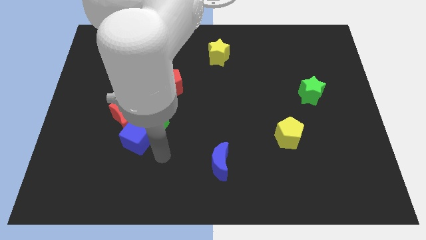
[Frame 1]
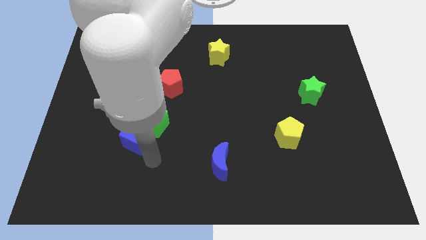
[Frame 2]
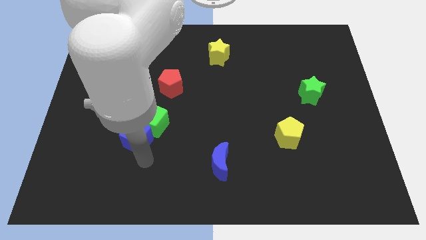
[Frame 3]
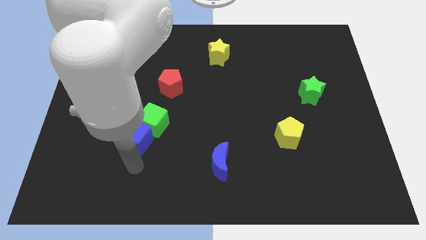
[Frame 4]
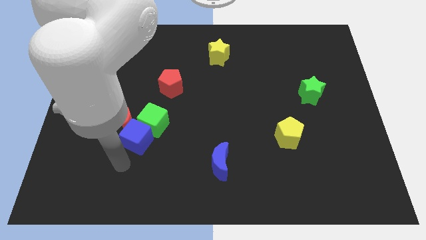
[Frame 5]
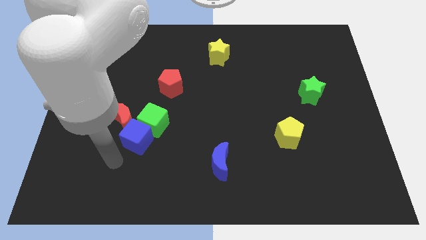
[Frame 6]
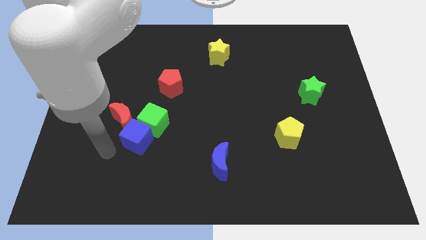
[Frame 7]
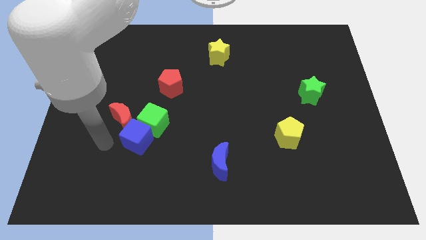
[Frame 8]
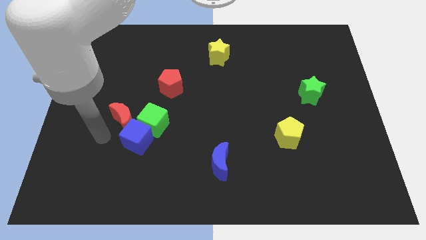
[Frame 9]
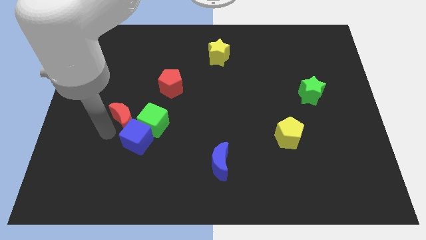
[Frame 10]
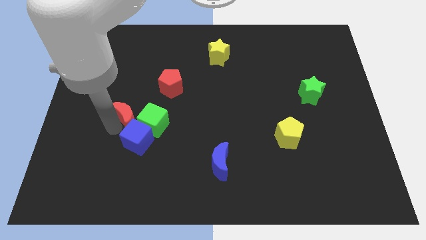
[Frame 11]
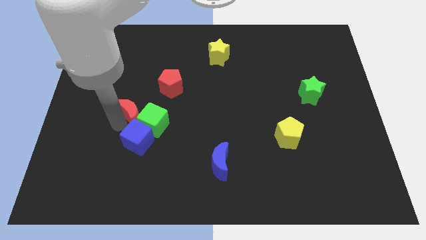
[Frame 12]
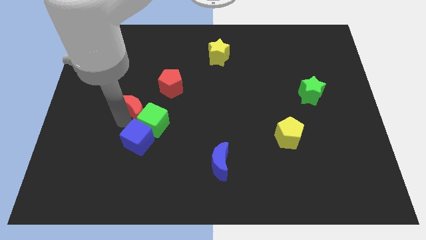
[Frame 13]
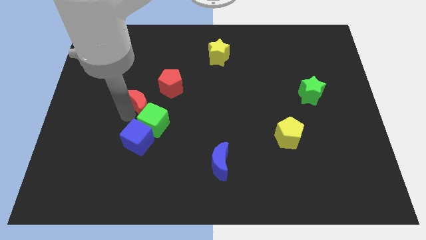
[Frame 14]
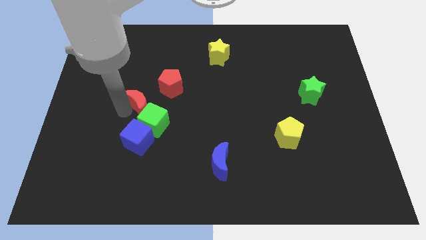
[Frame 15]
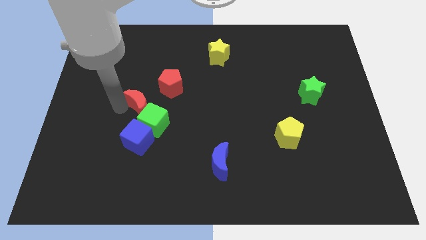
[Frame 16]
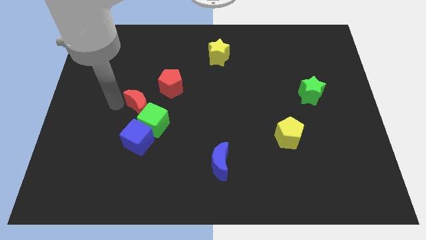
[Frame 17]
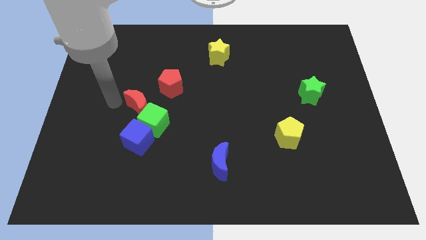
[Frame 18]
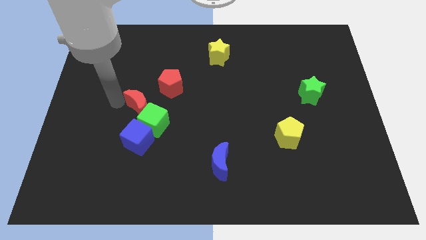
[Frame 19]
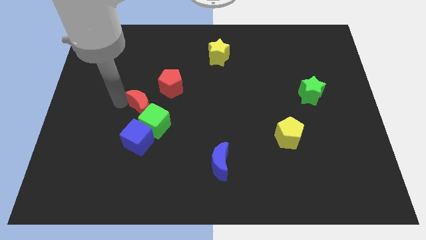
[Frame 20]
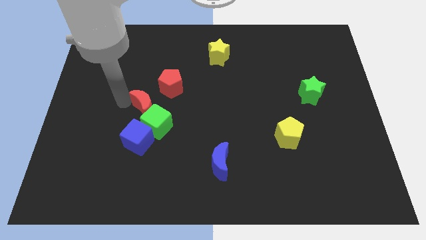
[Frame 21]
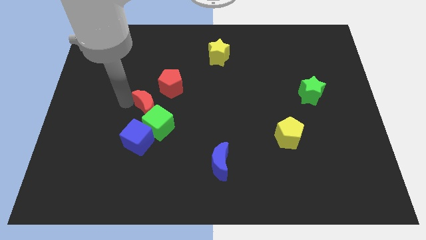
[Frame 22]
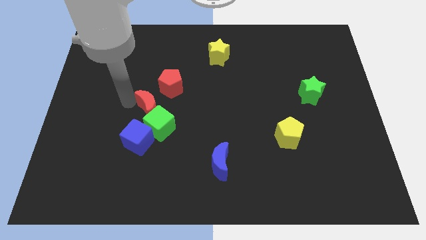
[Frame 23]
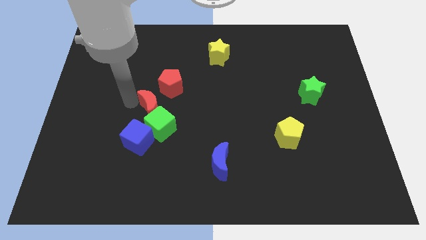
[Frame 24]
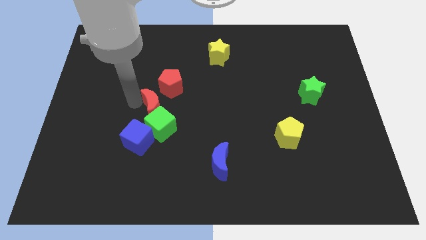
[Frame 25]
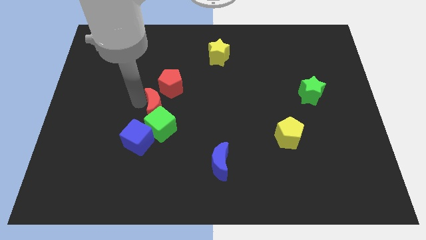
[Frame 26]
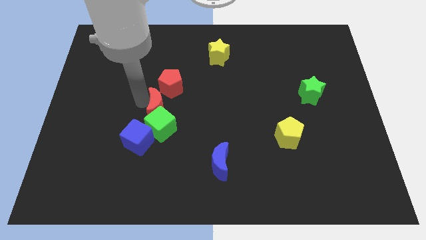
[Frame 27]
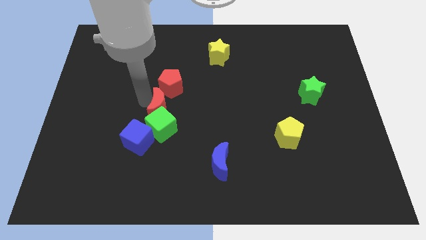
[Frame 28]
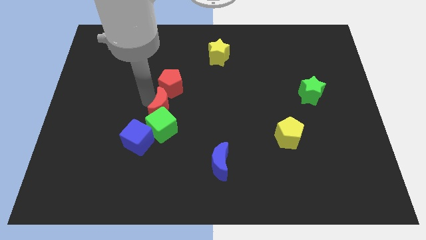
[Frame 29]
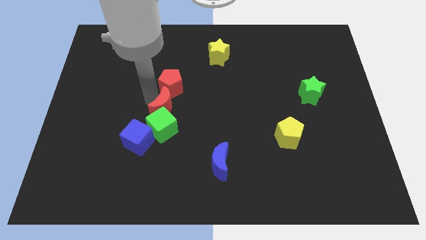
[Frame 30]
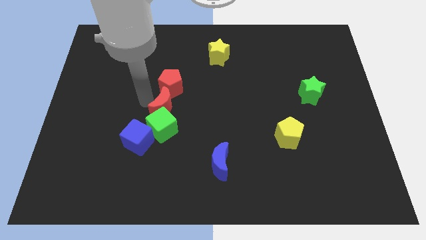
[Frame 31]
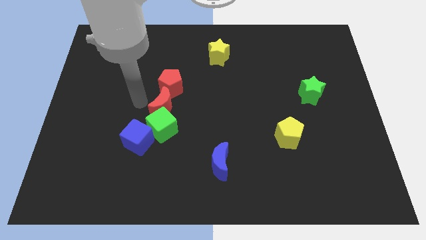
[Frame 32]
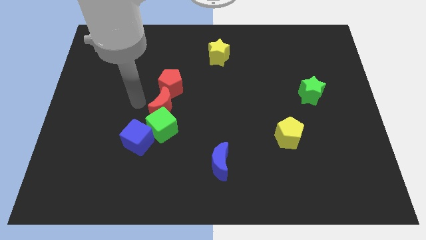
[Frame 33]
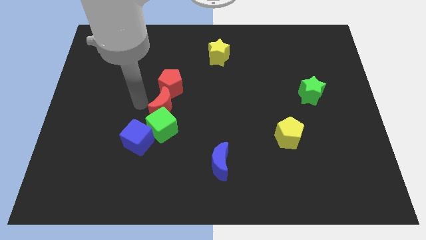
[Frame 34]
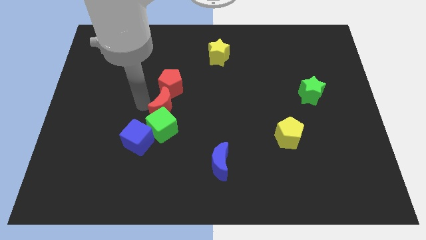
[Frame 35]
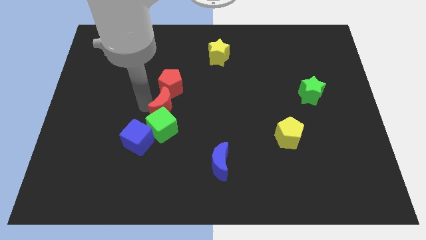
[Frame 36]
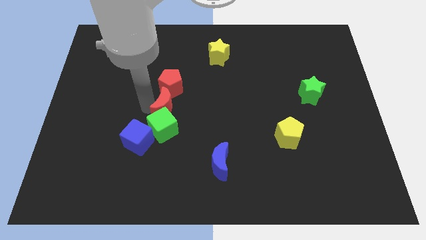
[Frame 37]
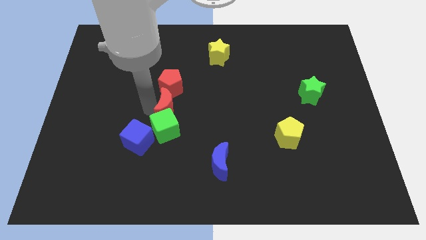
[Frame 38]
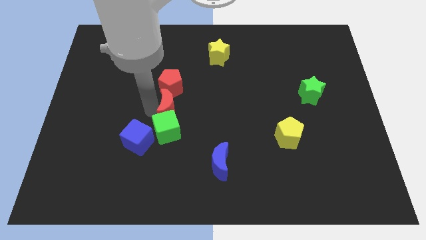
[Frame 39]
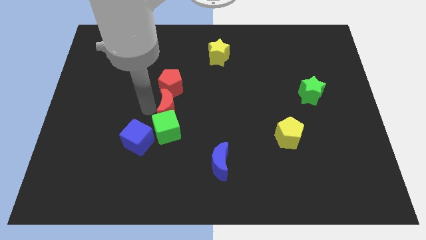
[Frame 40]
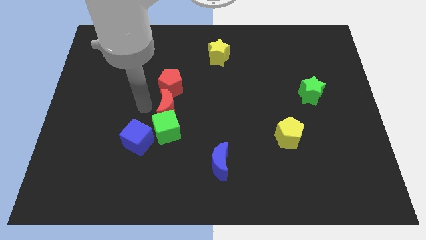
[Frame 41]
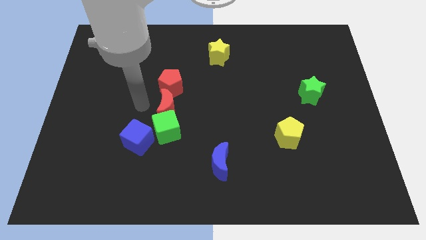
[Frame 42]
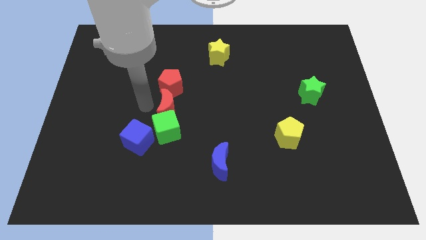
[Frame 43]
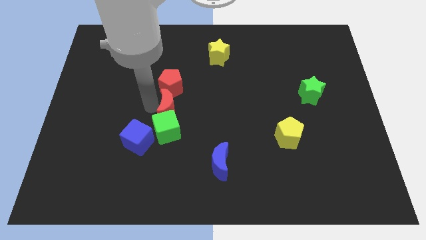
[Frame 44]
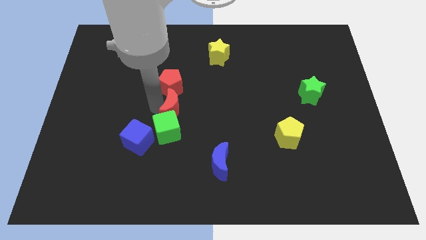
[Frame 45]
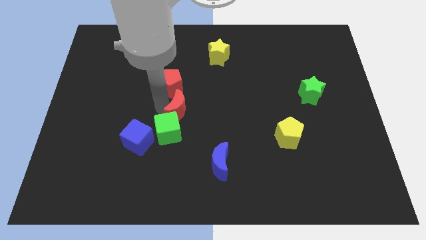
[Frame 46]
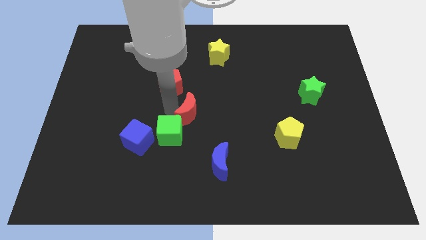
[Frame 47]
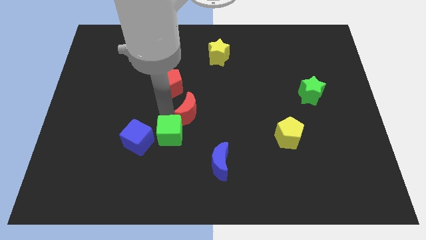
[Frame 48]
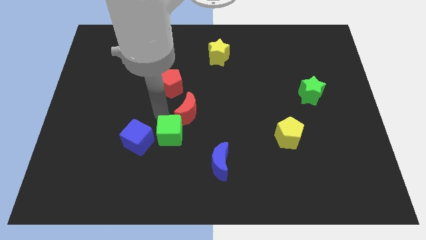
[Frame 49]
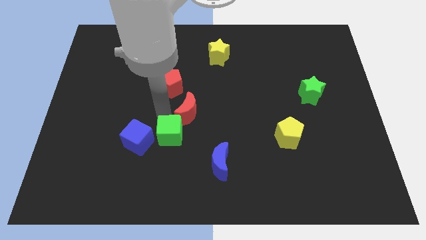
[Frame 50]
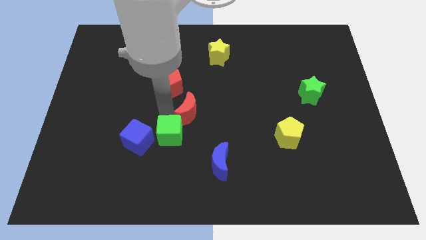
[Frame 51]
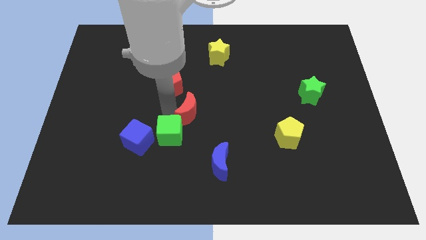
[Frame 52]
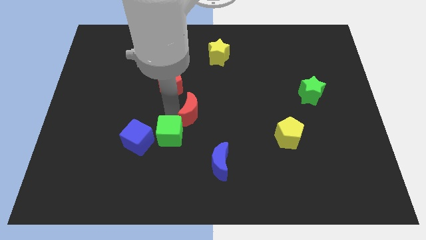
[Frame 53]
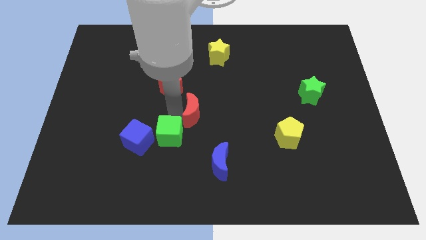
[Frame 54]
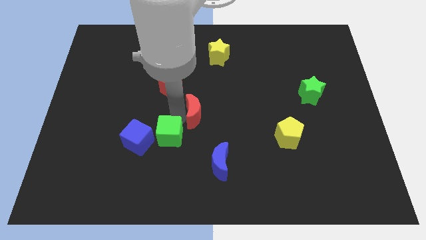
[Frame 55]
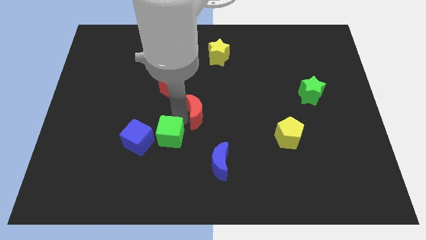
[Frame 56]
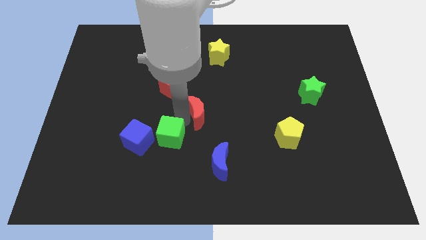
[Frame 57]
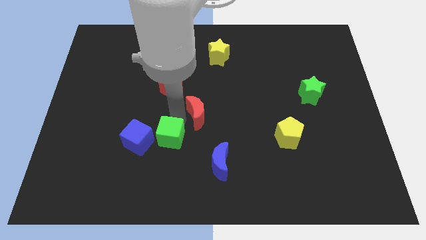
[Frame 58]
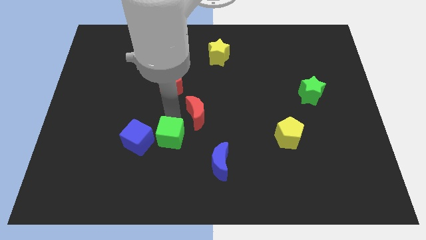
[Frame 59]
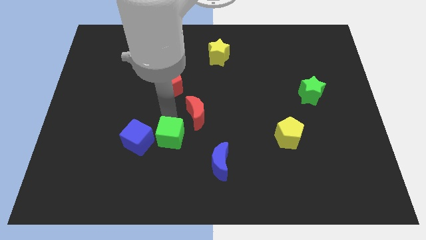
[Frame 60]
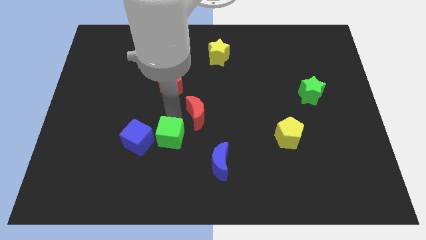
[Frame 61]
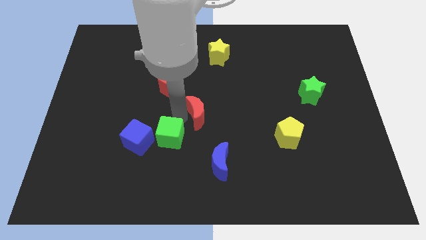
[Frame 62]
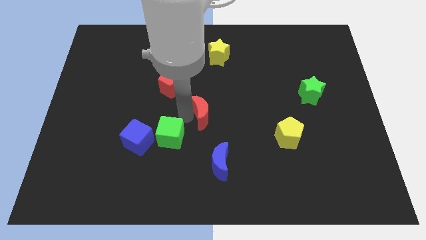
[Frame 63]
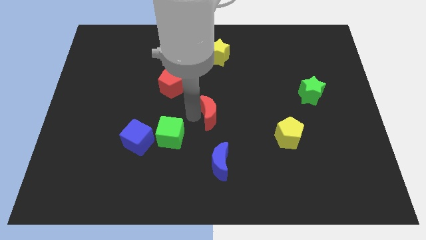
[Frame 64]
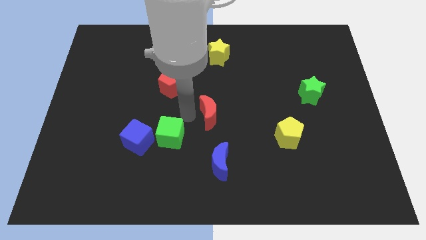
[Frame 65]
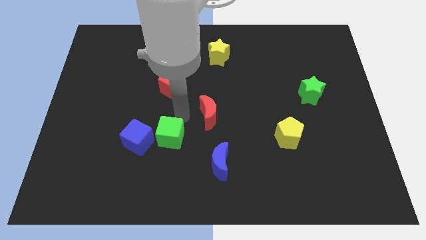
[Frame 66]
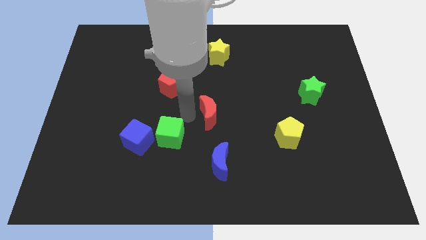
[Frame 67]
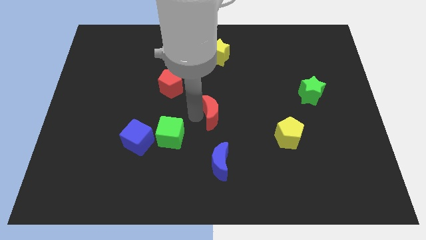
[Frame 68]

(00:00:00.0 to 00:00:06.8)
slide the red moon to the right

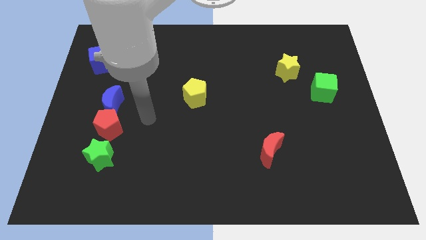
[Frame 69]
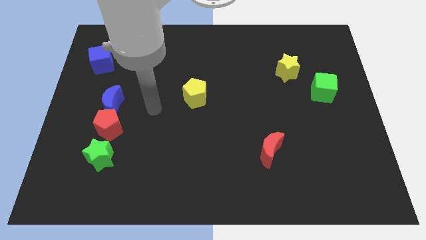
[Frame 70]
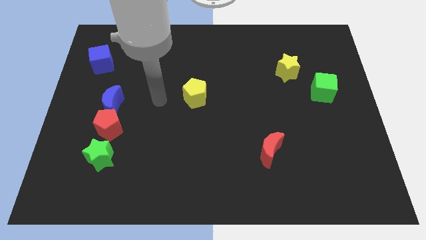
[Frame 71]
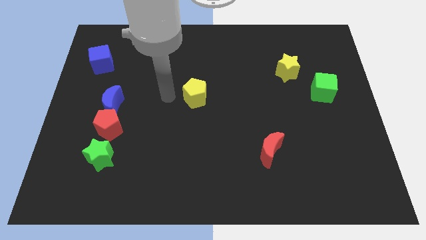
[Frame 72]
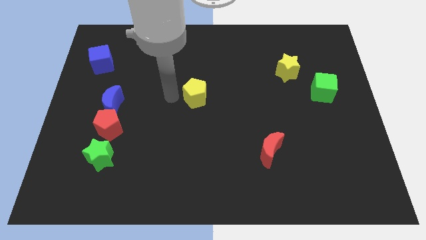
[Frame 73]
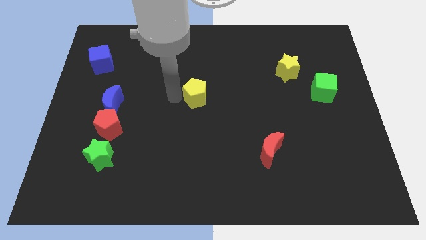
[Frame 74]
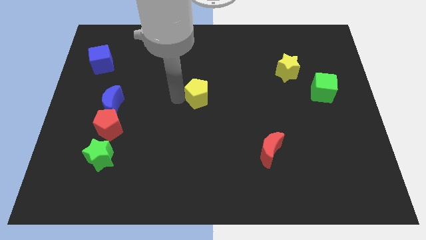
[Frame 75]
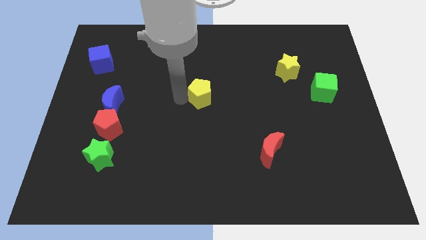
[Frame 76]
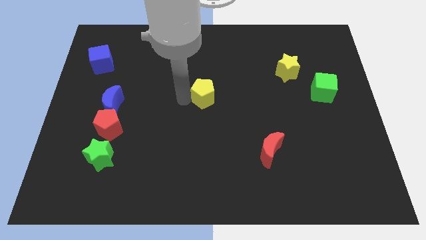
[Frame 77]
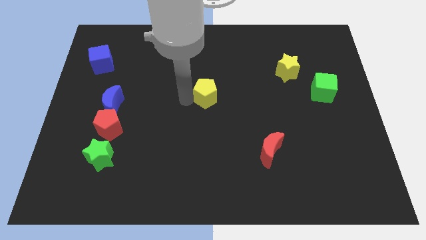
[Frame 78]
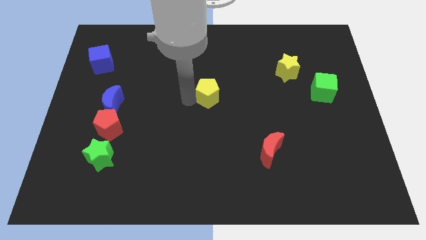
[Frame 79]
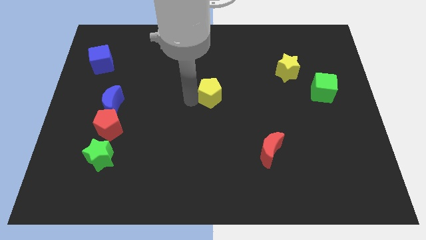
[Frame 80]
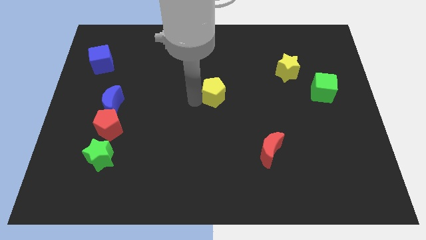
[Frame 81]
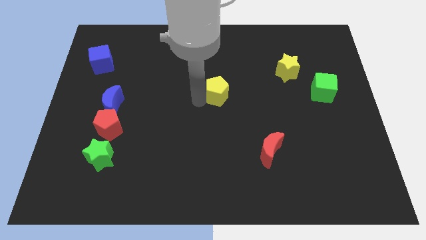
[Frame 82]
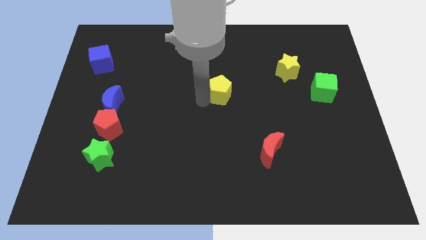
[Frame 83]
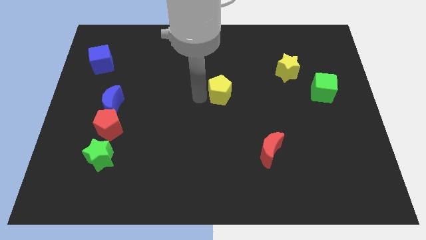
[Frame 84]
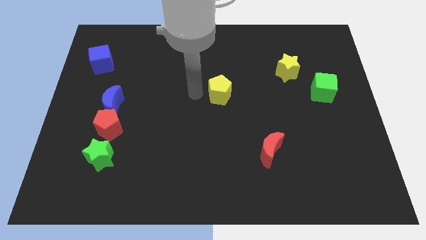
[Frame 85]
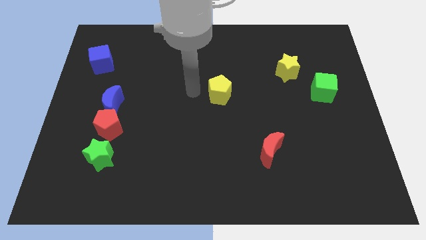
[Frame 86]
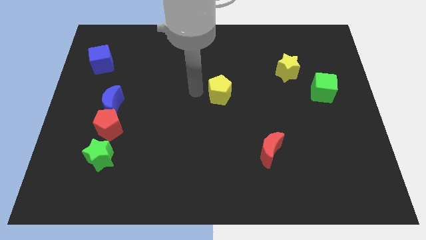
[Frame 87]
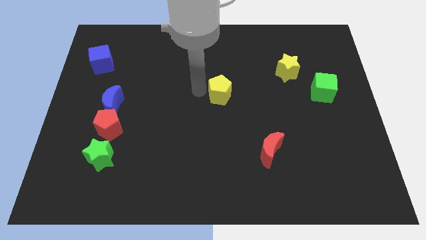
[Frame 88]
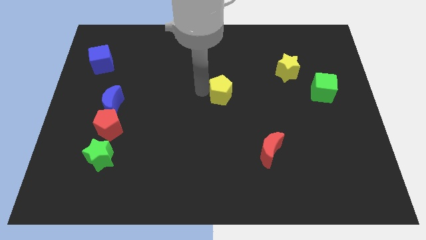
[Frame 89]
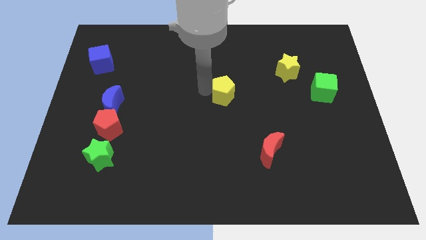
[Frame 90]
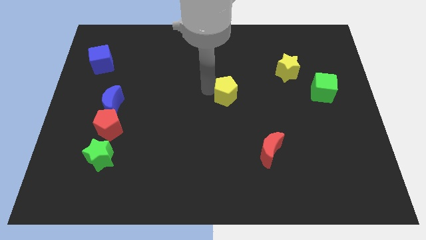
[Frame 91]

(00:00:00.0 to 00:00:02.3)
slightly slide the yellow pentagon right
